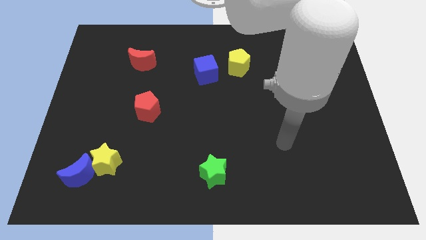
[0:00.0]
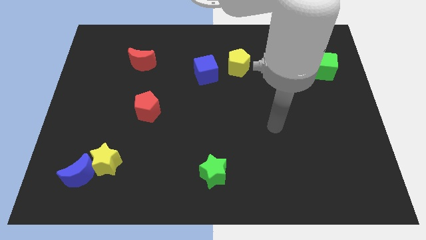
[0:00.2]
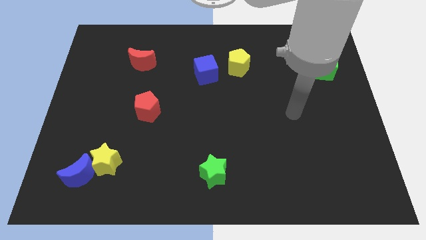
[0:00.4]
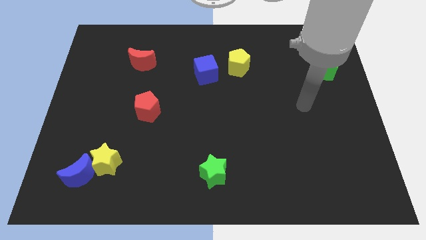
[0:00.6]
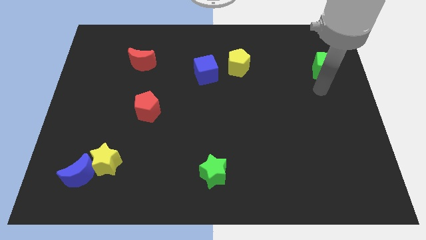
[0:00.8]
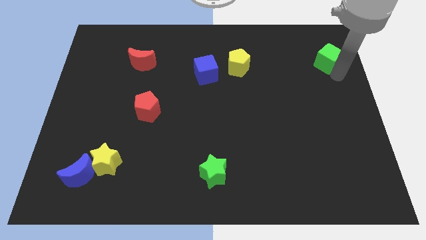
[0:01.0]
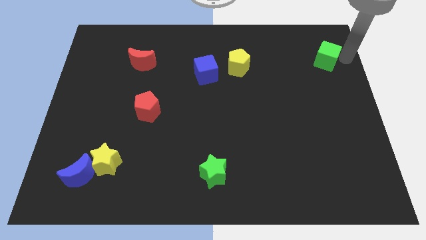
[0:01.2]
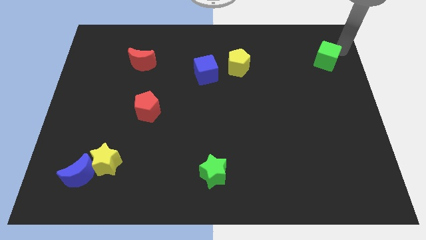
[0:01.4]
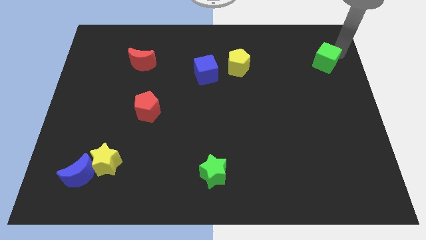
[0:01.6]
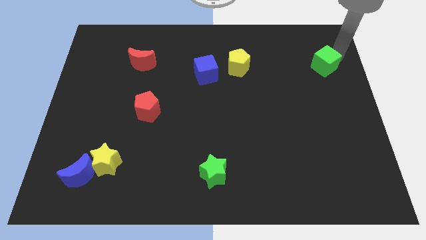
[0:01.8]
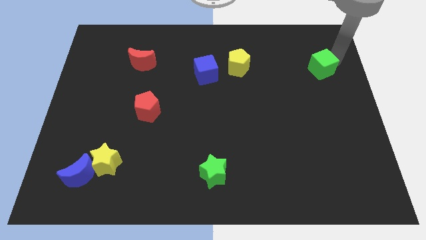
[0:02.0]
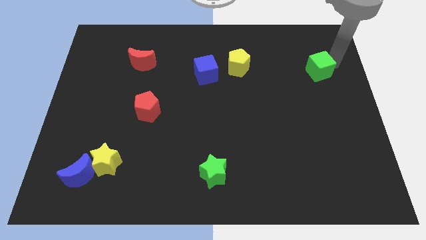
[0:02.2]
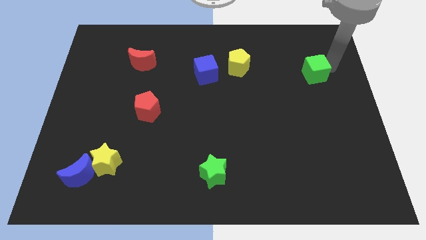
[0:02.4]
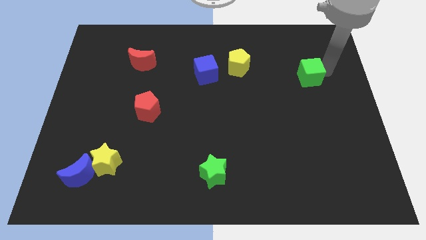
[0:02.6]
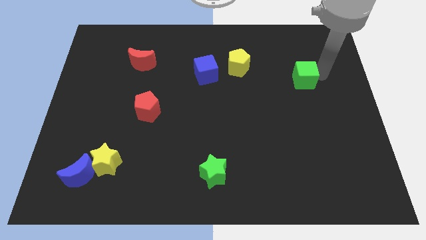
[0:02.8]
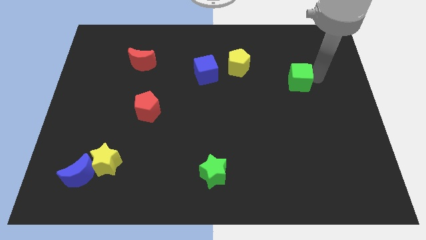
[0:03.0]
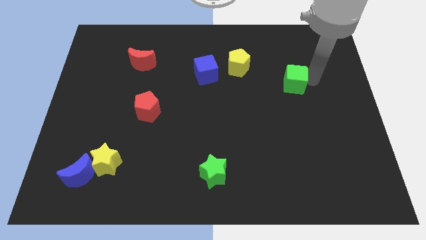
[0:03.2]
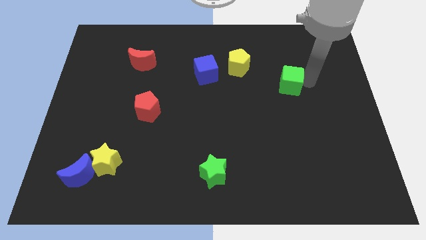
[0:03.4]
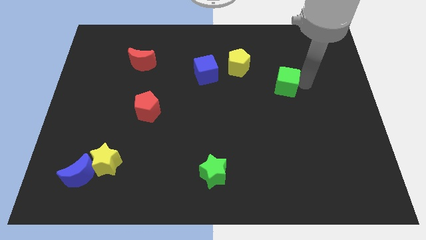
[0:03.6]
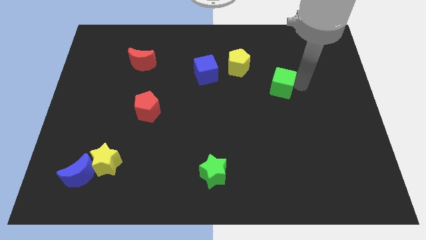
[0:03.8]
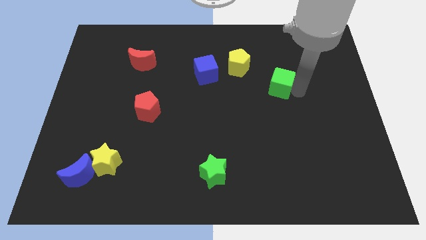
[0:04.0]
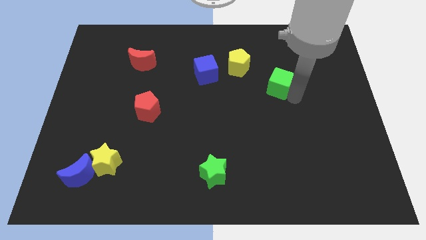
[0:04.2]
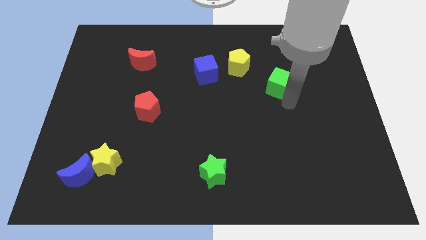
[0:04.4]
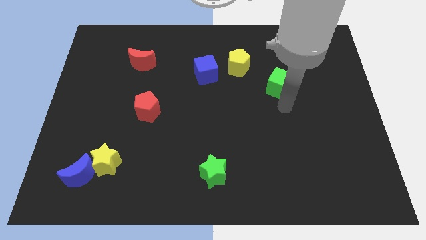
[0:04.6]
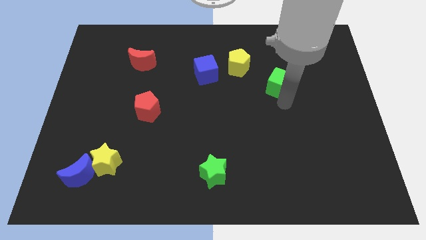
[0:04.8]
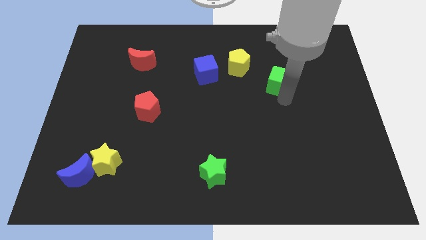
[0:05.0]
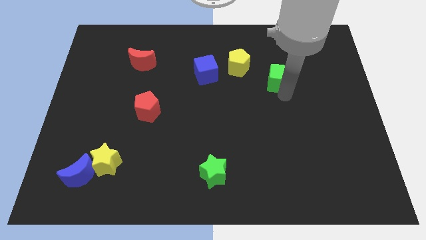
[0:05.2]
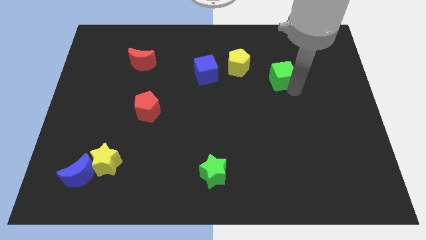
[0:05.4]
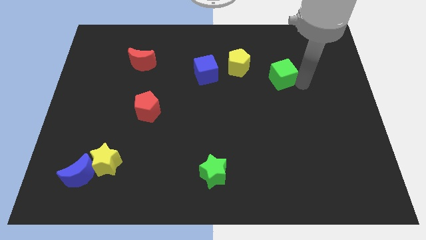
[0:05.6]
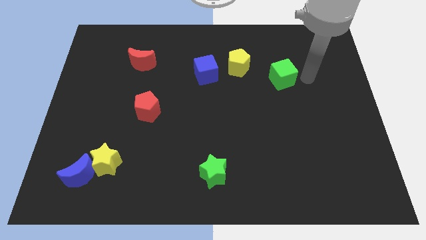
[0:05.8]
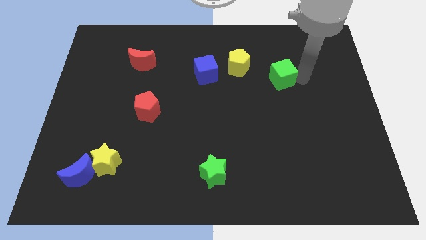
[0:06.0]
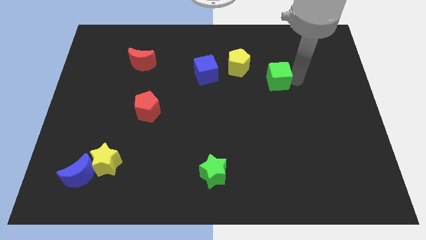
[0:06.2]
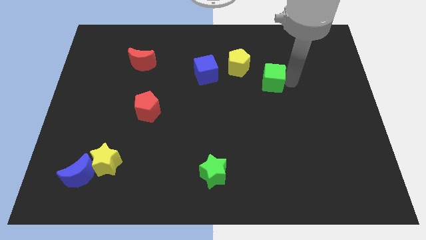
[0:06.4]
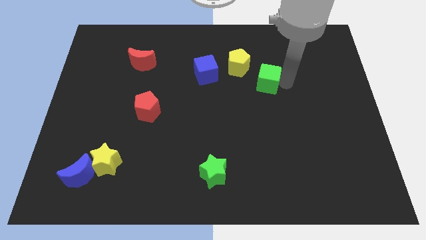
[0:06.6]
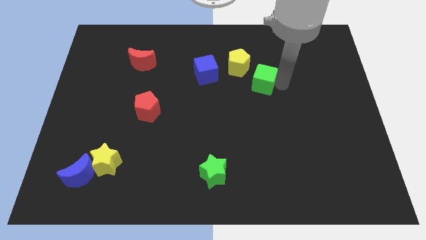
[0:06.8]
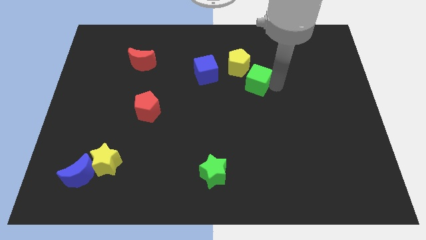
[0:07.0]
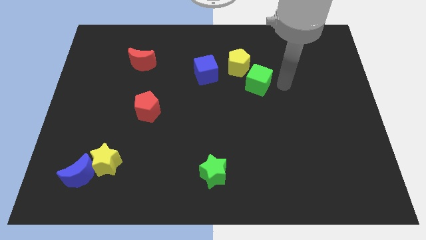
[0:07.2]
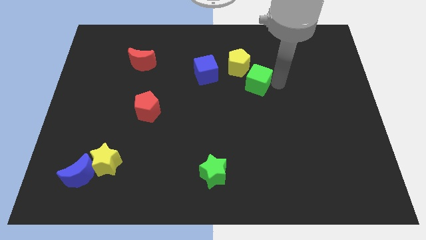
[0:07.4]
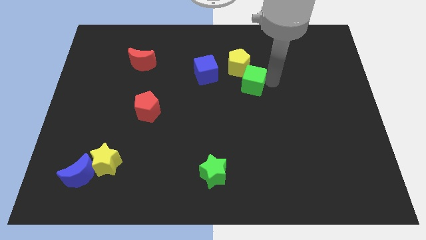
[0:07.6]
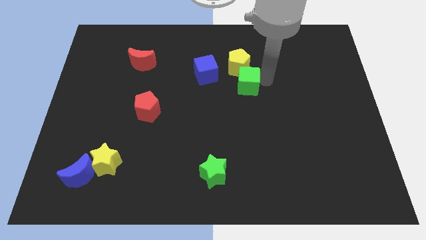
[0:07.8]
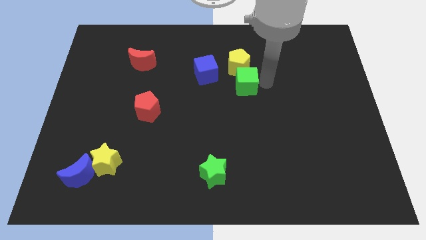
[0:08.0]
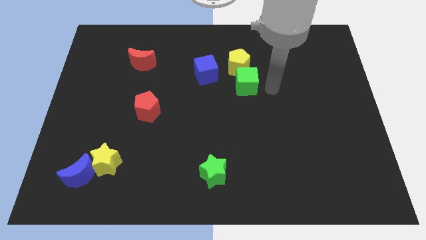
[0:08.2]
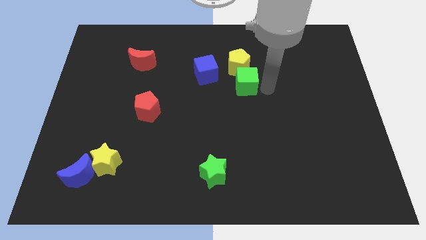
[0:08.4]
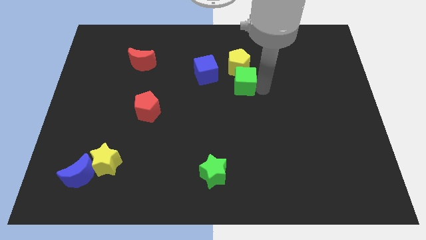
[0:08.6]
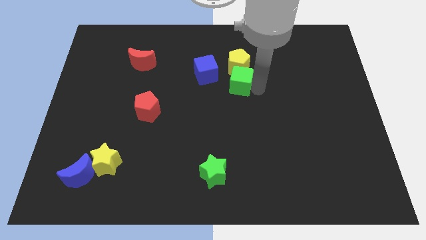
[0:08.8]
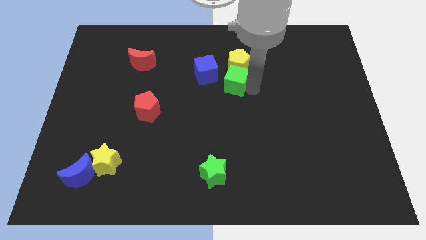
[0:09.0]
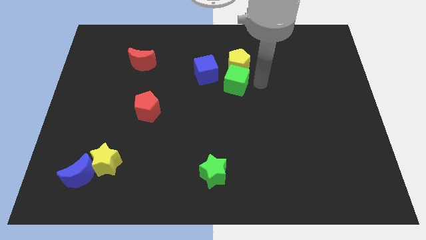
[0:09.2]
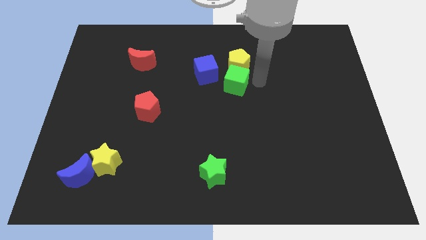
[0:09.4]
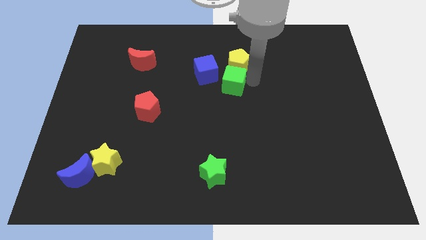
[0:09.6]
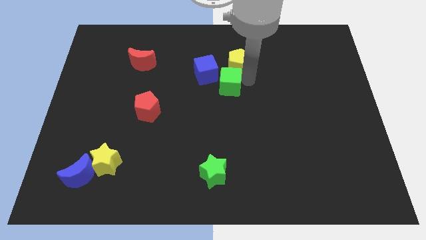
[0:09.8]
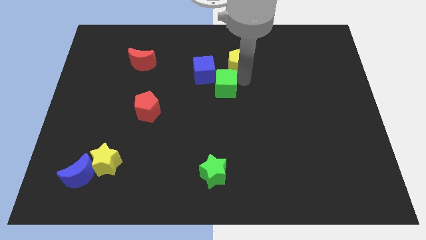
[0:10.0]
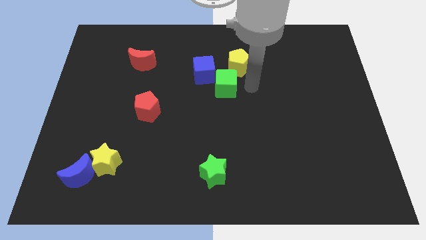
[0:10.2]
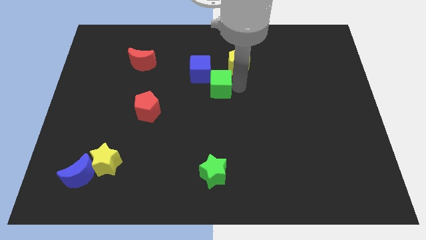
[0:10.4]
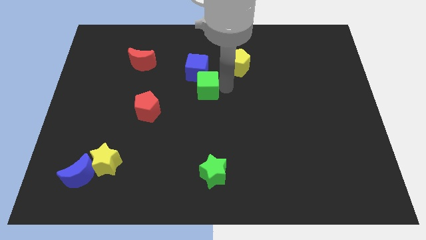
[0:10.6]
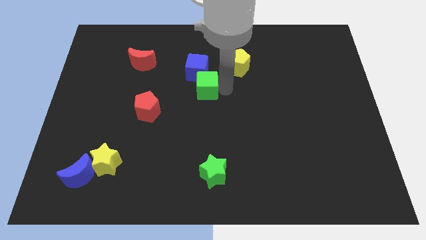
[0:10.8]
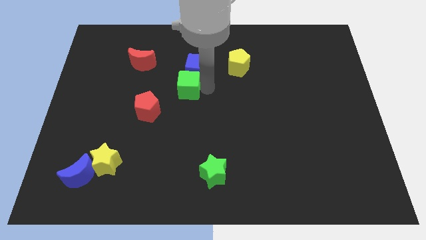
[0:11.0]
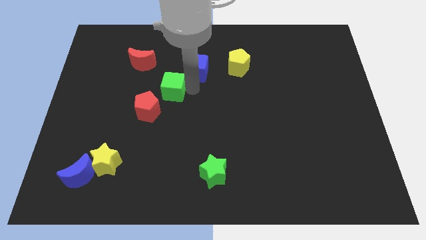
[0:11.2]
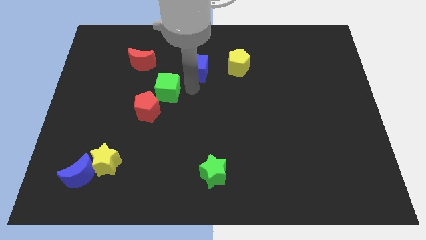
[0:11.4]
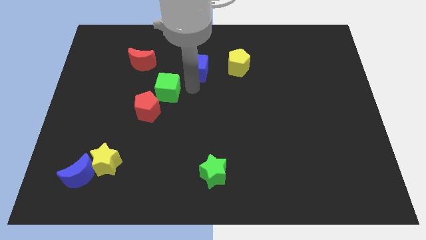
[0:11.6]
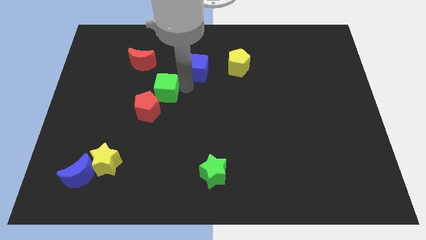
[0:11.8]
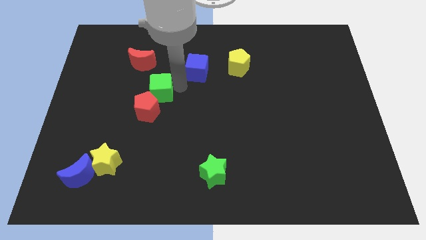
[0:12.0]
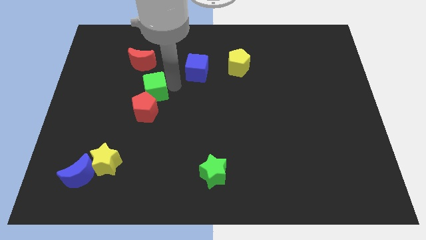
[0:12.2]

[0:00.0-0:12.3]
slide the green cube below the red moon

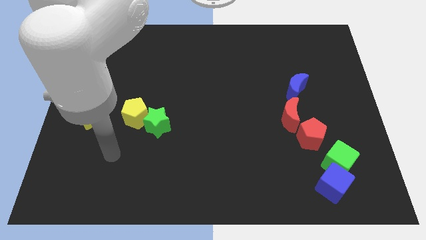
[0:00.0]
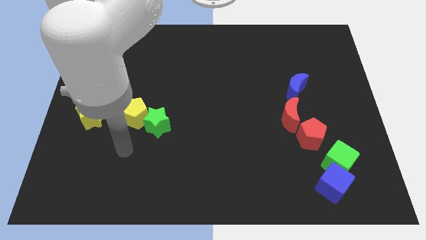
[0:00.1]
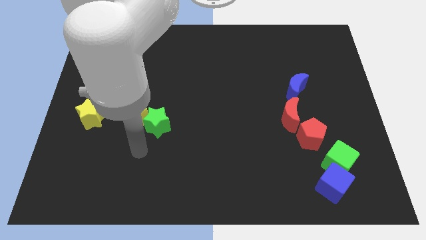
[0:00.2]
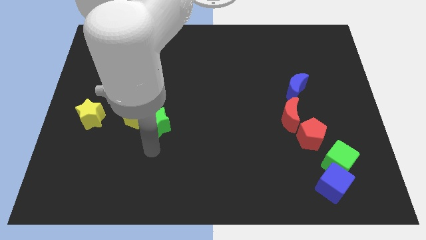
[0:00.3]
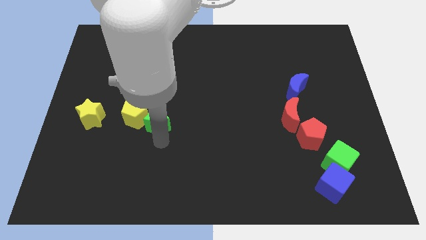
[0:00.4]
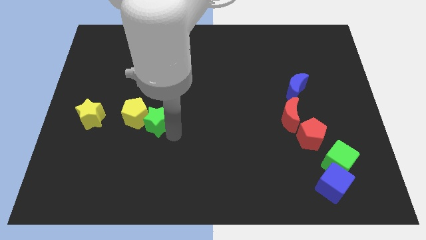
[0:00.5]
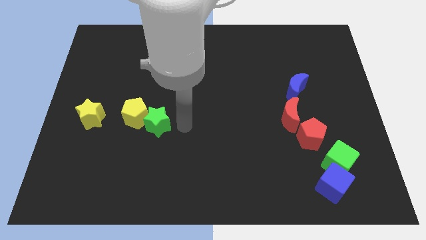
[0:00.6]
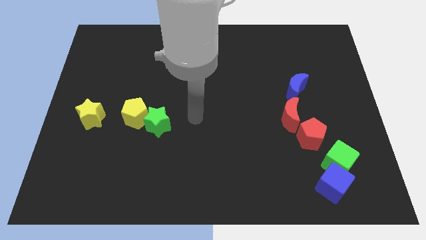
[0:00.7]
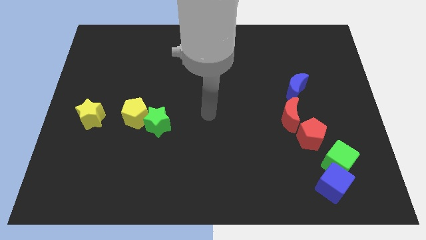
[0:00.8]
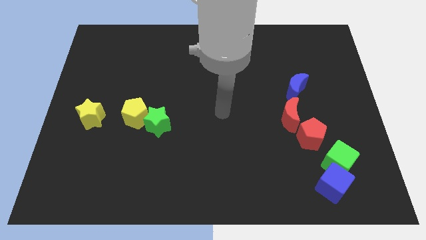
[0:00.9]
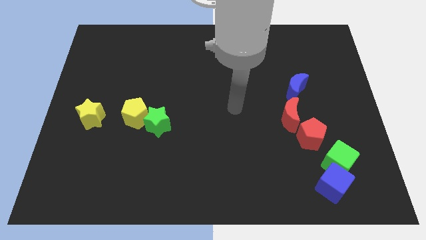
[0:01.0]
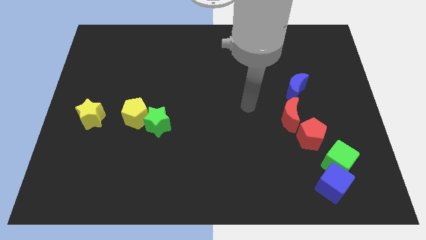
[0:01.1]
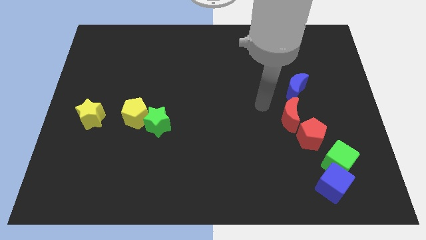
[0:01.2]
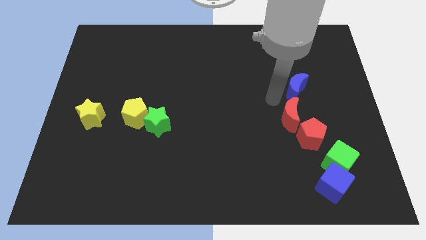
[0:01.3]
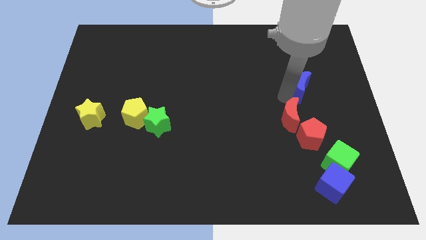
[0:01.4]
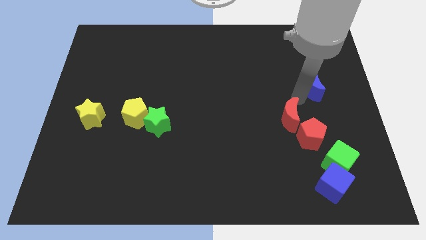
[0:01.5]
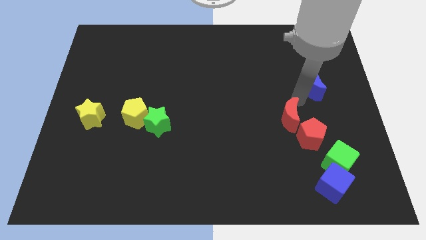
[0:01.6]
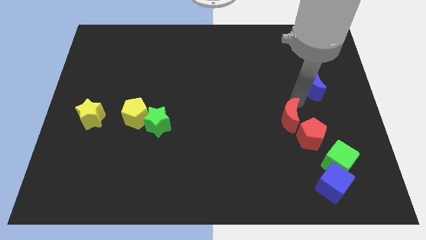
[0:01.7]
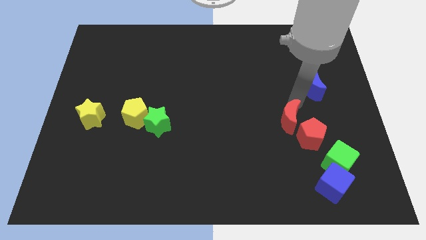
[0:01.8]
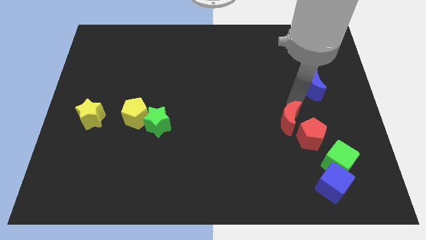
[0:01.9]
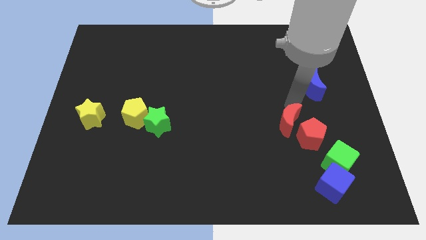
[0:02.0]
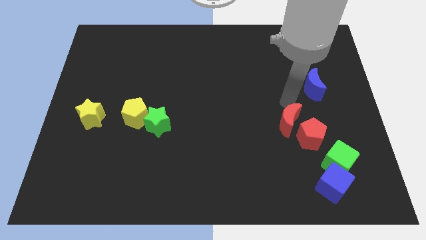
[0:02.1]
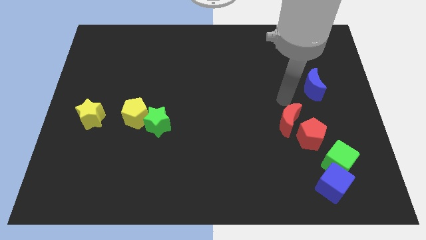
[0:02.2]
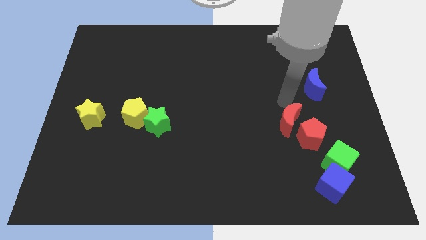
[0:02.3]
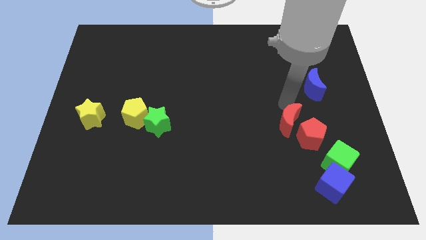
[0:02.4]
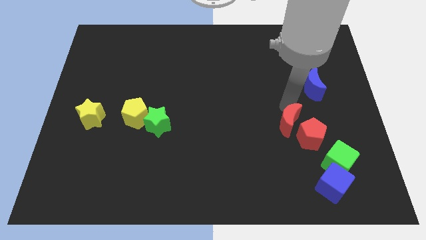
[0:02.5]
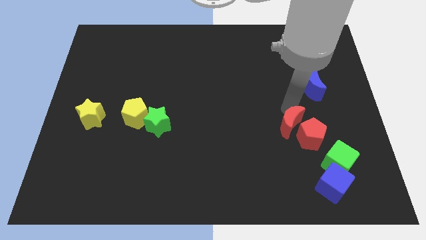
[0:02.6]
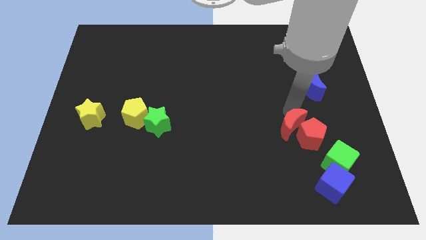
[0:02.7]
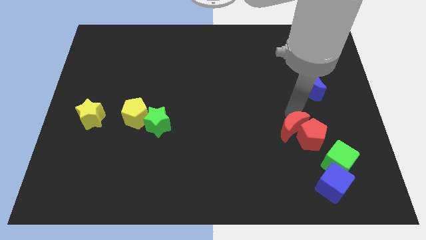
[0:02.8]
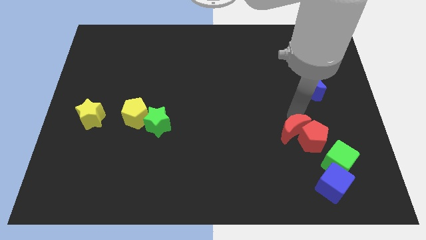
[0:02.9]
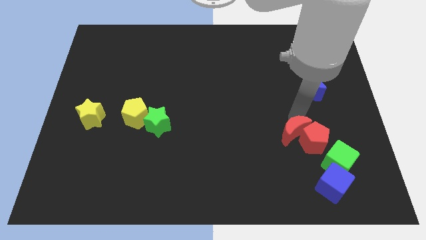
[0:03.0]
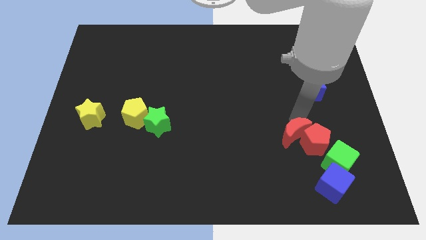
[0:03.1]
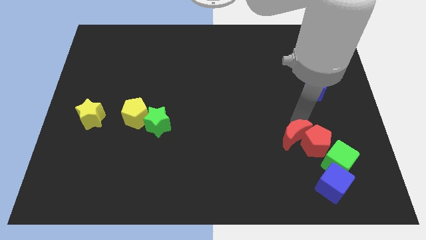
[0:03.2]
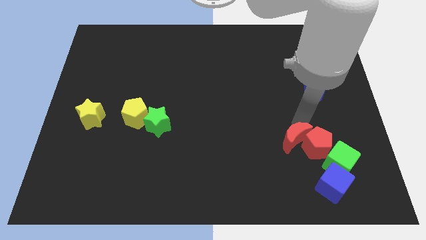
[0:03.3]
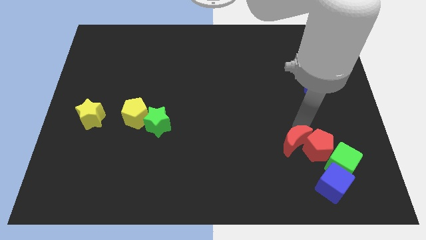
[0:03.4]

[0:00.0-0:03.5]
move the red moon to the top left of the blue cube
